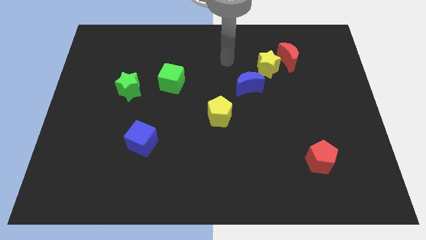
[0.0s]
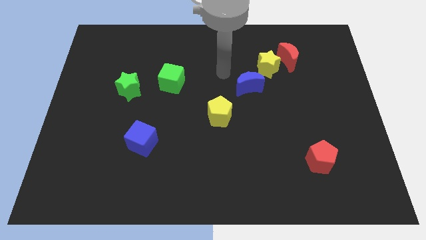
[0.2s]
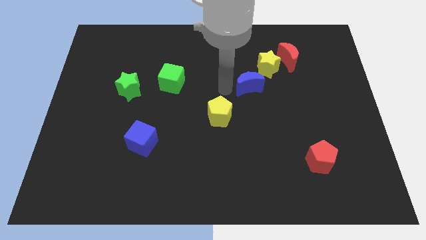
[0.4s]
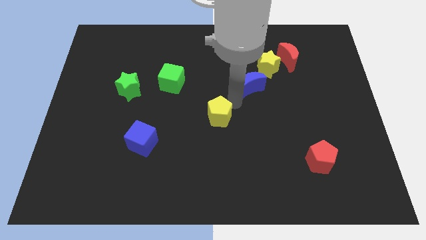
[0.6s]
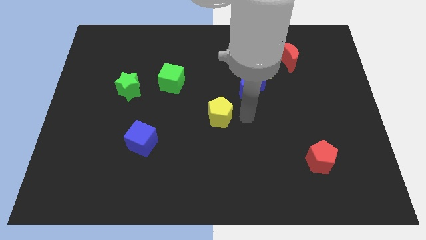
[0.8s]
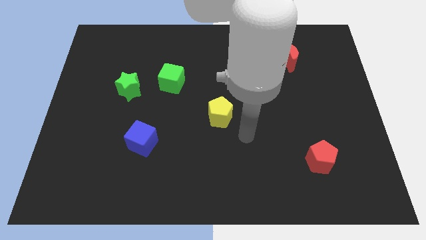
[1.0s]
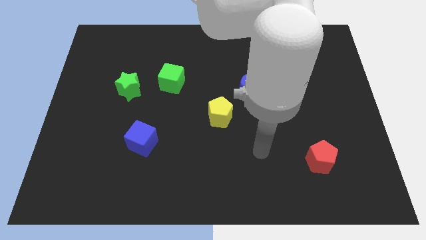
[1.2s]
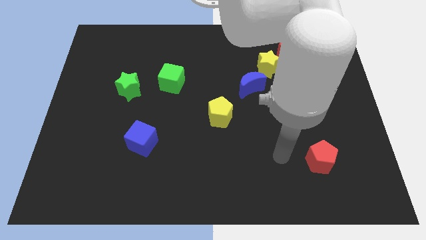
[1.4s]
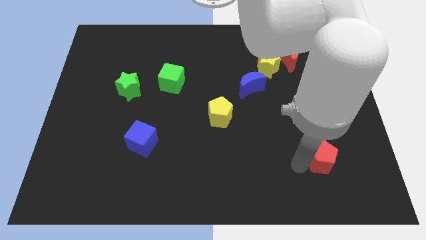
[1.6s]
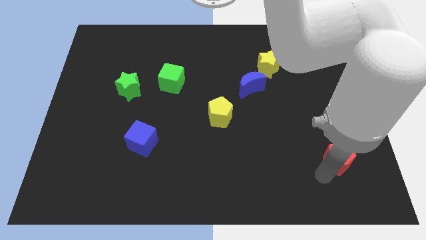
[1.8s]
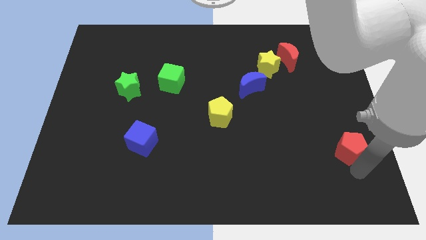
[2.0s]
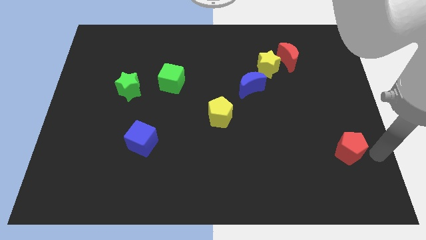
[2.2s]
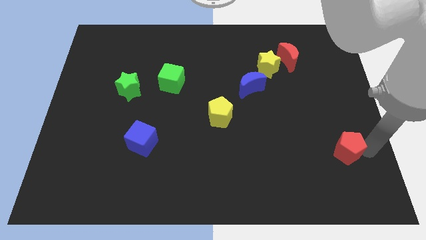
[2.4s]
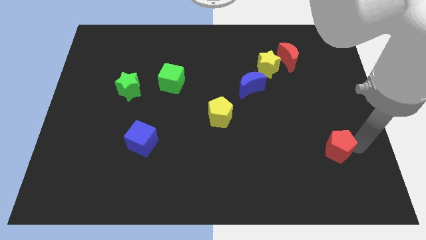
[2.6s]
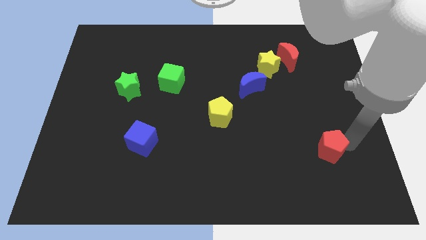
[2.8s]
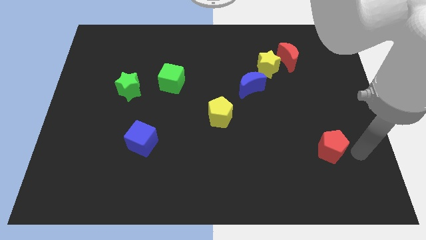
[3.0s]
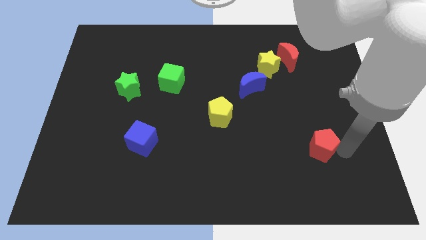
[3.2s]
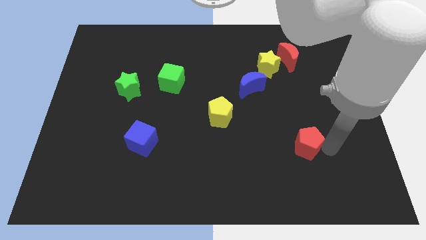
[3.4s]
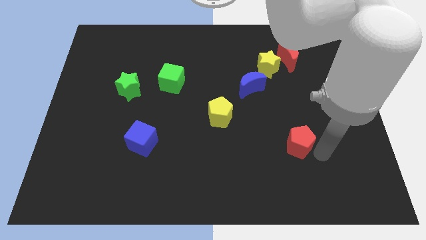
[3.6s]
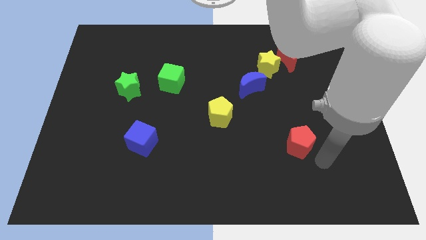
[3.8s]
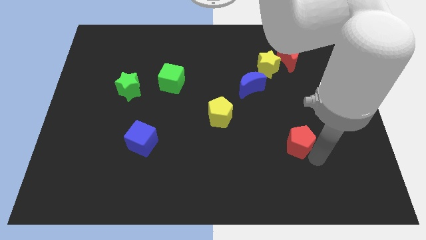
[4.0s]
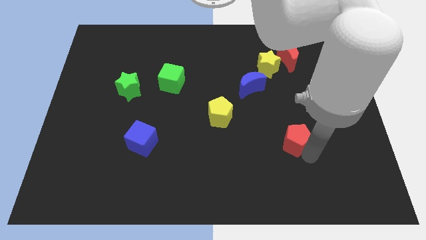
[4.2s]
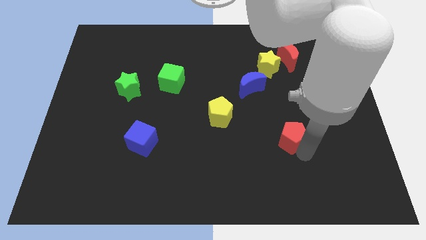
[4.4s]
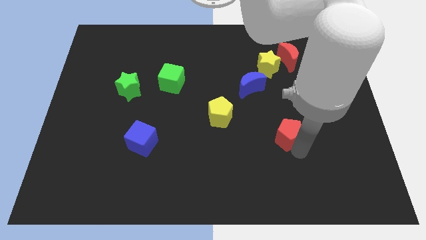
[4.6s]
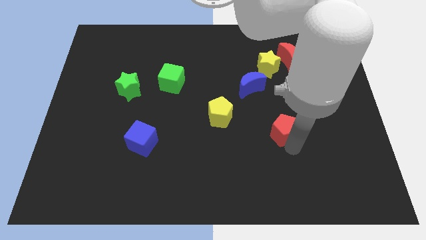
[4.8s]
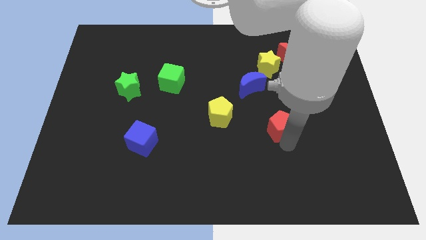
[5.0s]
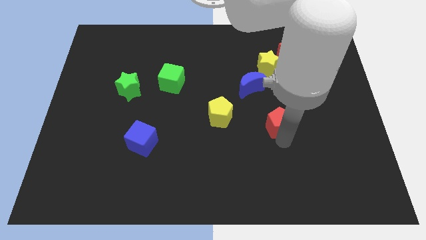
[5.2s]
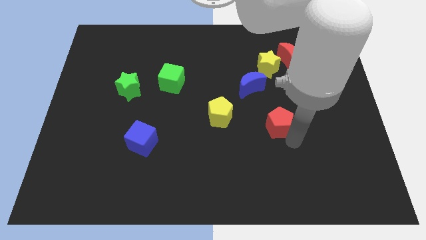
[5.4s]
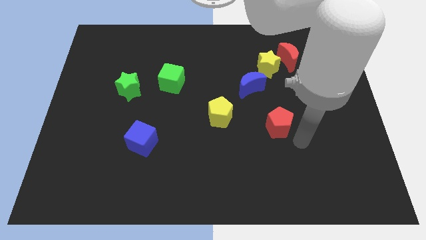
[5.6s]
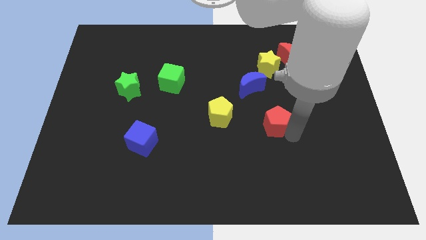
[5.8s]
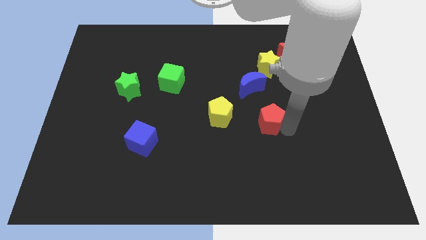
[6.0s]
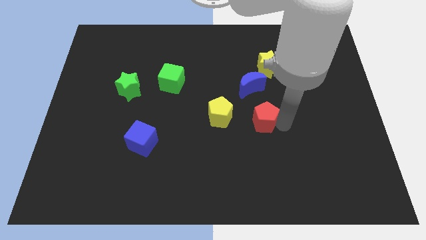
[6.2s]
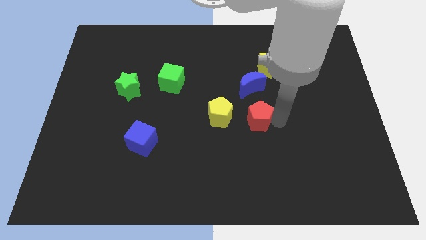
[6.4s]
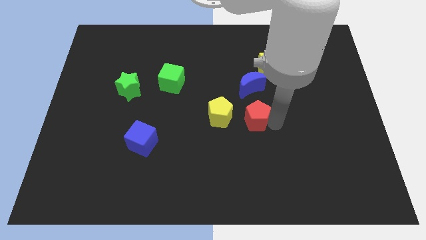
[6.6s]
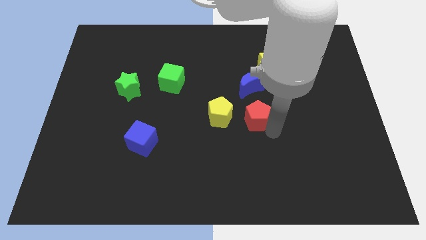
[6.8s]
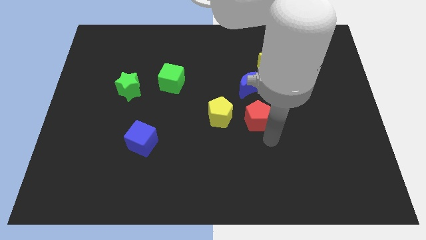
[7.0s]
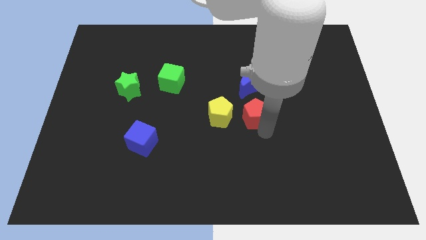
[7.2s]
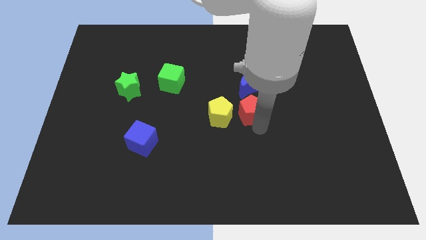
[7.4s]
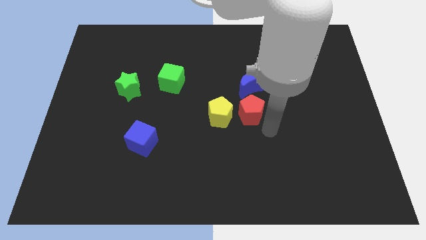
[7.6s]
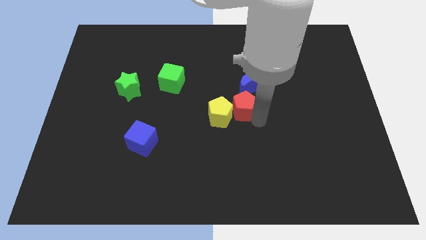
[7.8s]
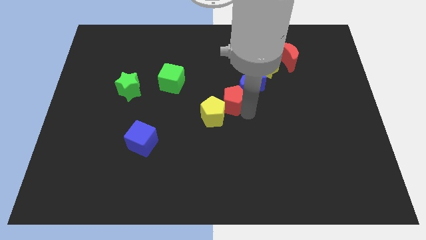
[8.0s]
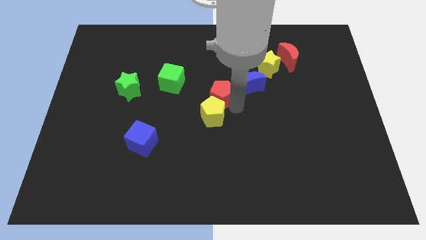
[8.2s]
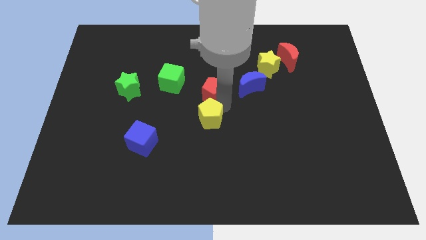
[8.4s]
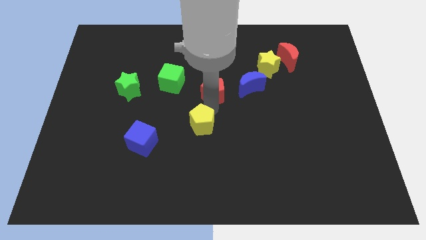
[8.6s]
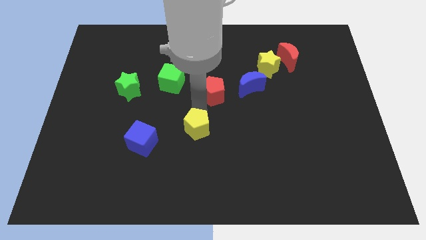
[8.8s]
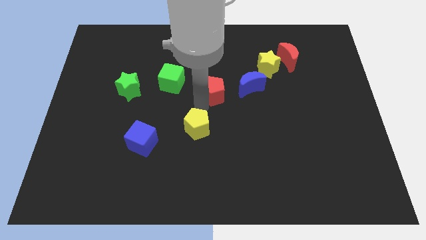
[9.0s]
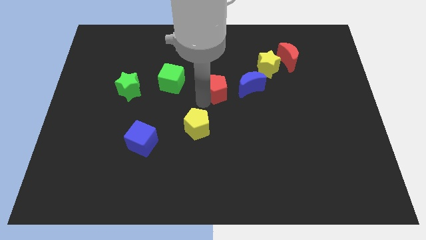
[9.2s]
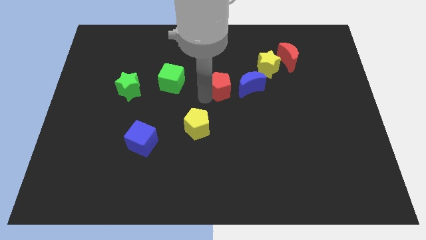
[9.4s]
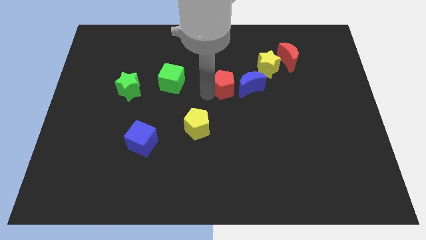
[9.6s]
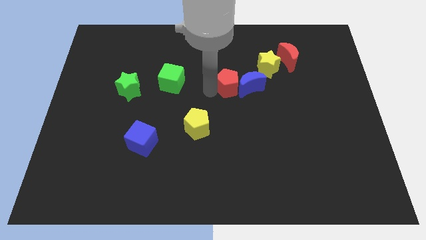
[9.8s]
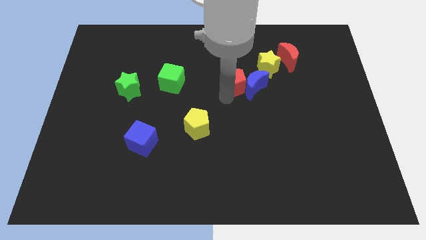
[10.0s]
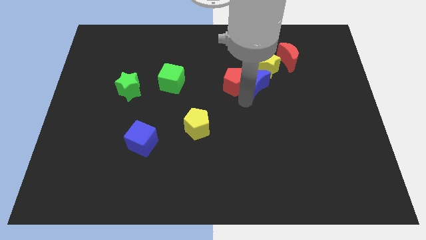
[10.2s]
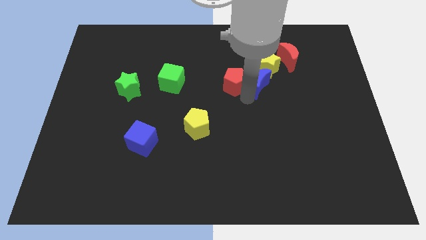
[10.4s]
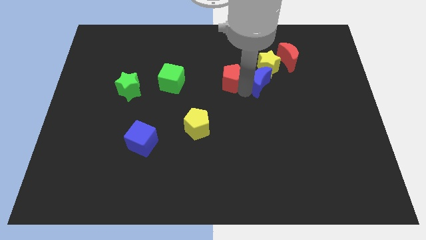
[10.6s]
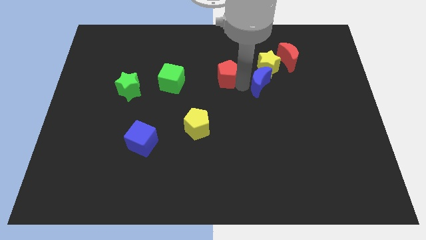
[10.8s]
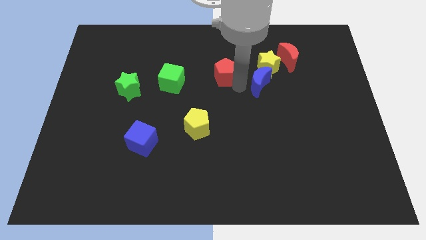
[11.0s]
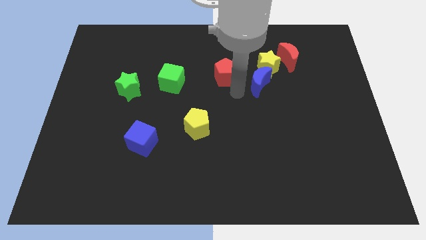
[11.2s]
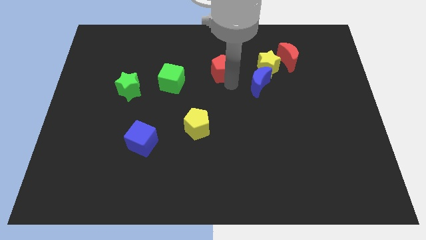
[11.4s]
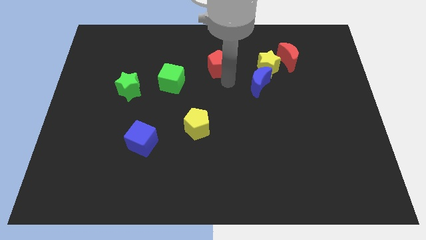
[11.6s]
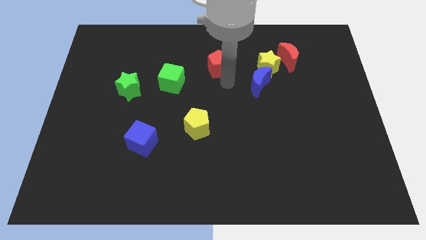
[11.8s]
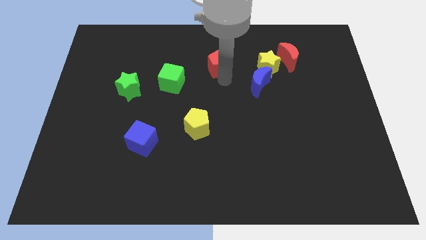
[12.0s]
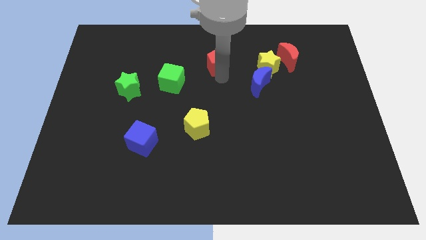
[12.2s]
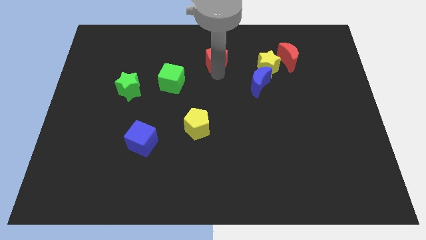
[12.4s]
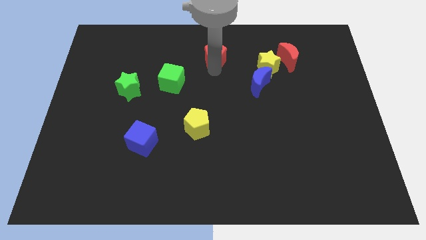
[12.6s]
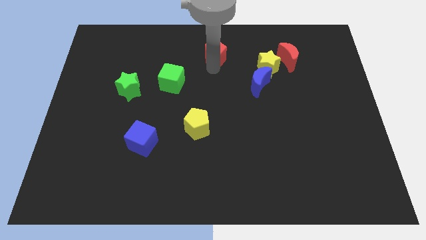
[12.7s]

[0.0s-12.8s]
put the red pentagon to the towards your base
